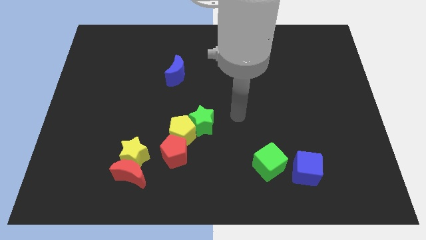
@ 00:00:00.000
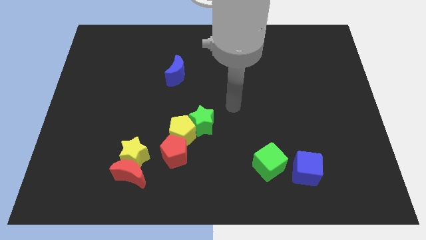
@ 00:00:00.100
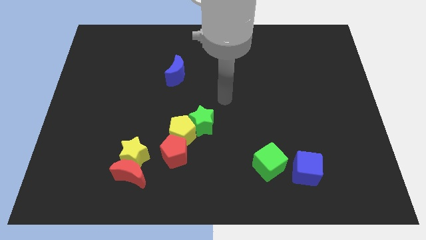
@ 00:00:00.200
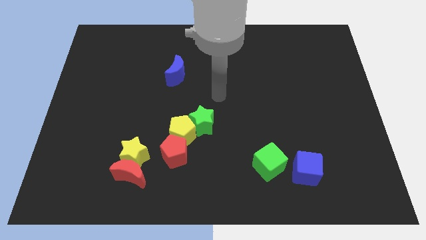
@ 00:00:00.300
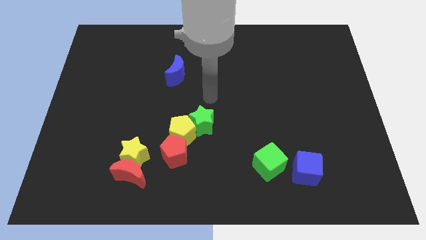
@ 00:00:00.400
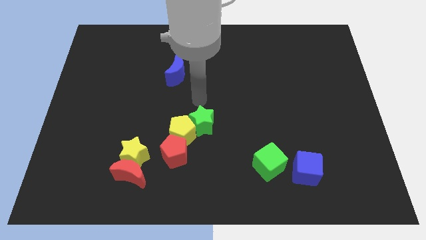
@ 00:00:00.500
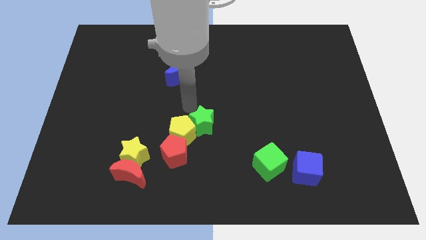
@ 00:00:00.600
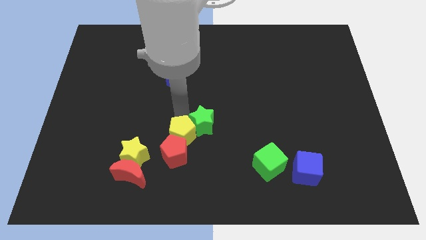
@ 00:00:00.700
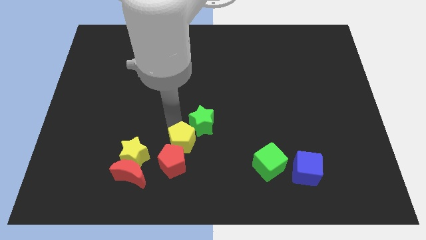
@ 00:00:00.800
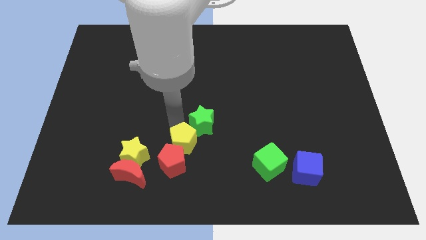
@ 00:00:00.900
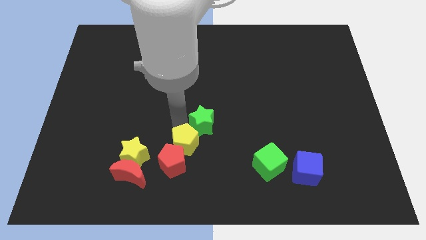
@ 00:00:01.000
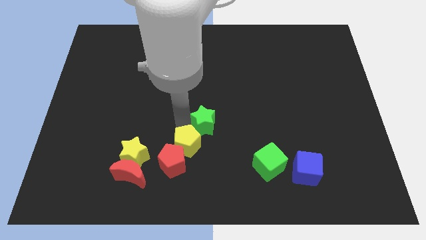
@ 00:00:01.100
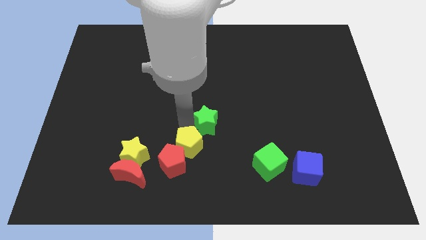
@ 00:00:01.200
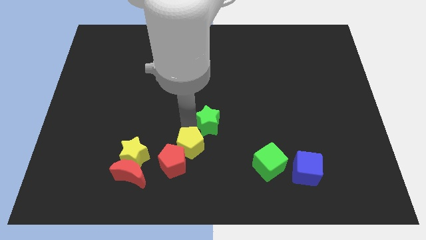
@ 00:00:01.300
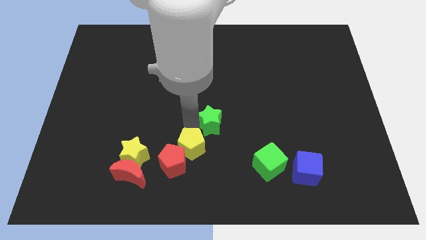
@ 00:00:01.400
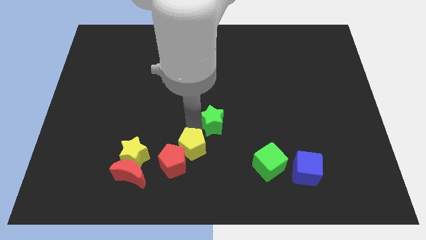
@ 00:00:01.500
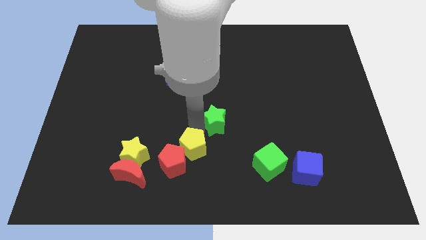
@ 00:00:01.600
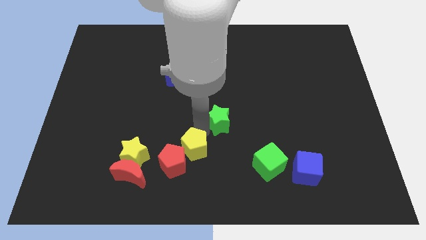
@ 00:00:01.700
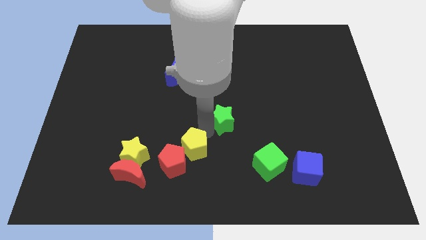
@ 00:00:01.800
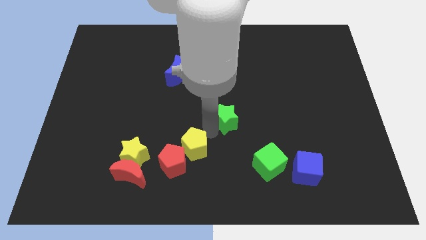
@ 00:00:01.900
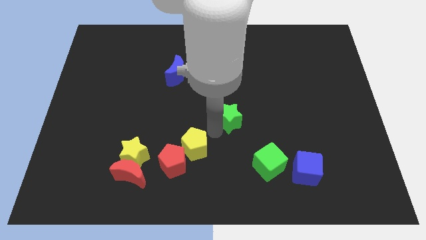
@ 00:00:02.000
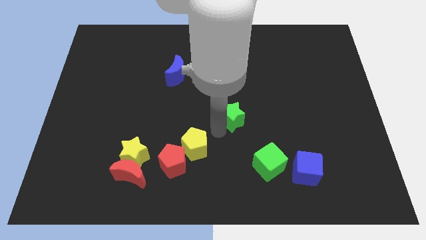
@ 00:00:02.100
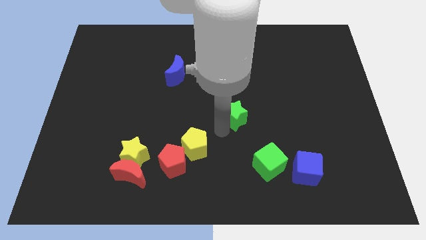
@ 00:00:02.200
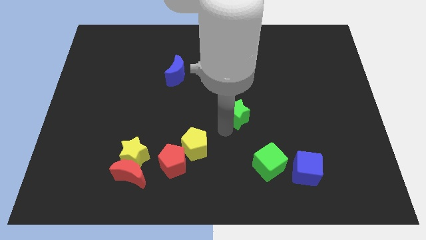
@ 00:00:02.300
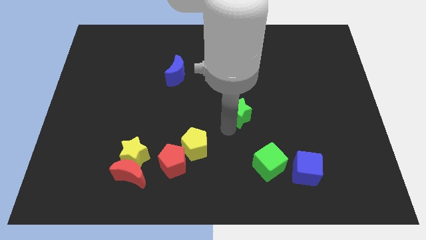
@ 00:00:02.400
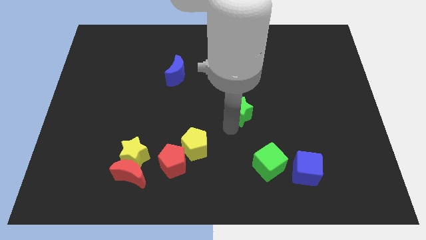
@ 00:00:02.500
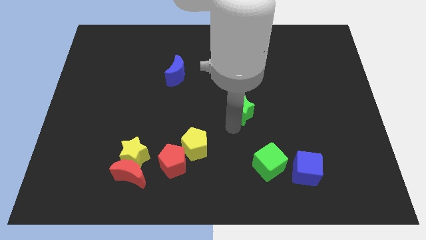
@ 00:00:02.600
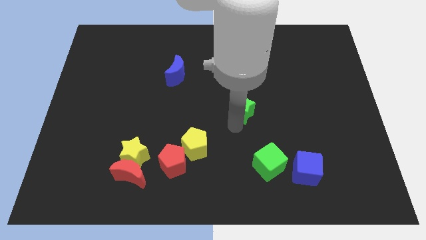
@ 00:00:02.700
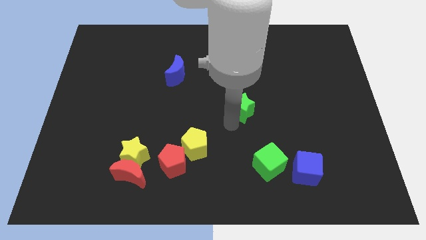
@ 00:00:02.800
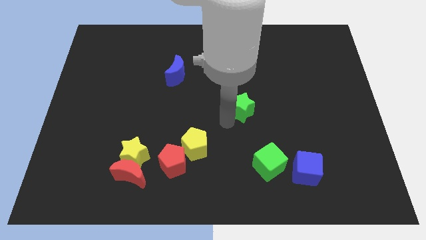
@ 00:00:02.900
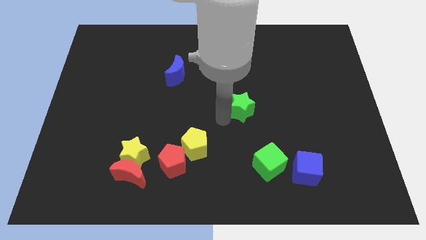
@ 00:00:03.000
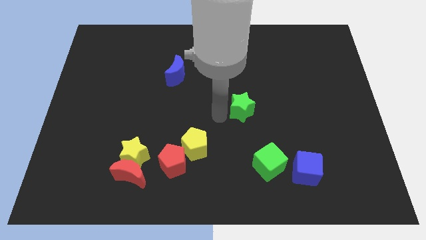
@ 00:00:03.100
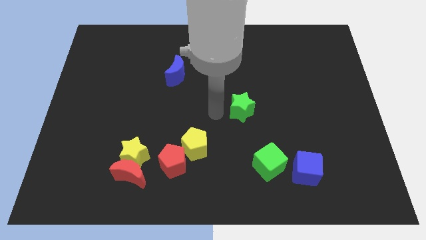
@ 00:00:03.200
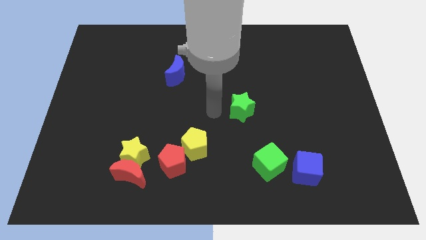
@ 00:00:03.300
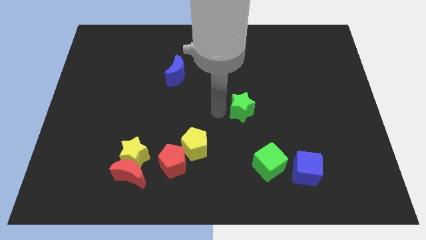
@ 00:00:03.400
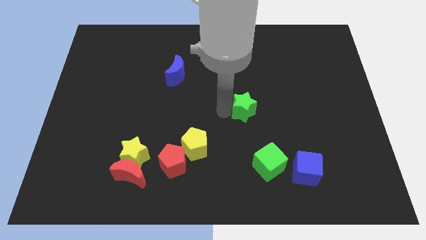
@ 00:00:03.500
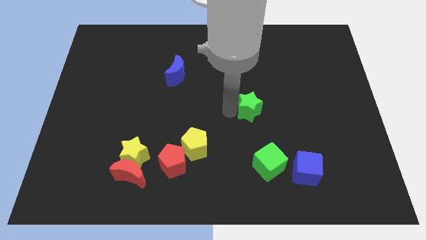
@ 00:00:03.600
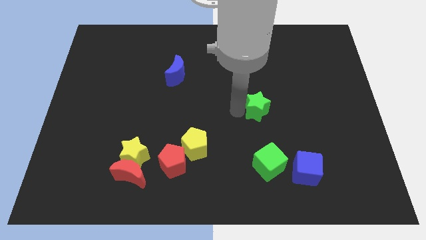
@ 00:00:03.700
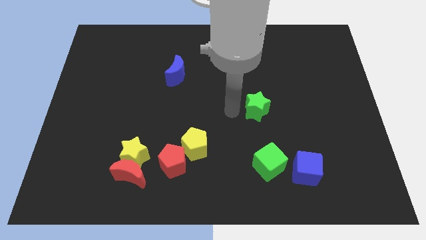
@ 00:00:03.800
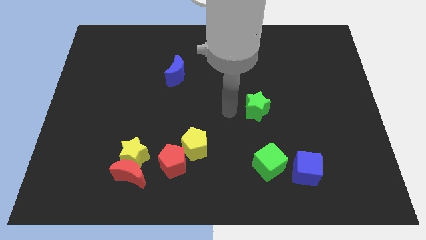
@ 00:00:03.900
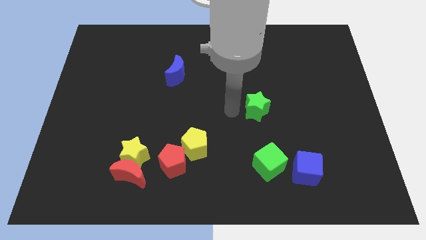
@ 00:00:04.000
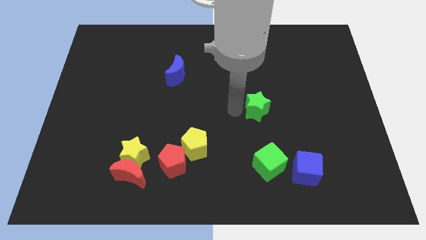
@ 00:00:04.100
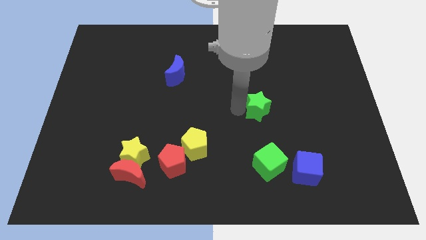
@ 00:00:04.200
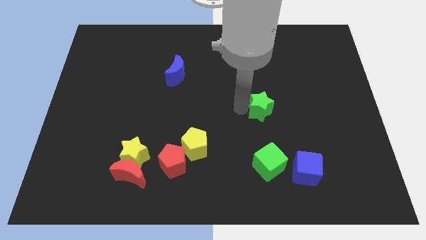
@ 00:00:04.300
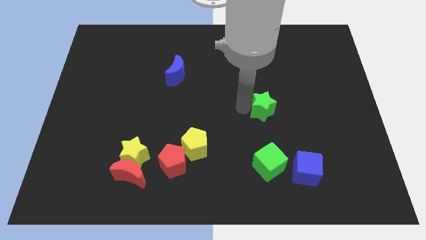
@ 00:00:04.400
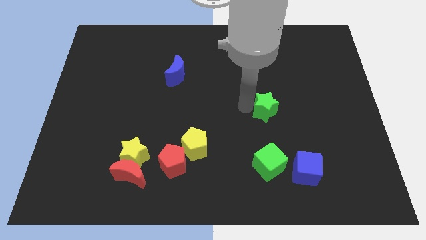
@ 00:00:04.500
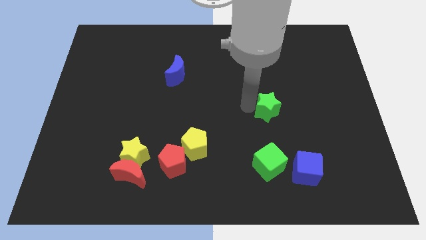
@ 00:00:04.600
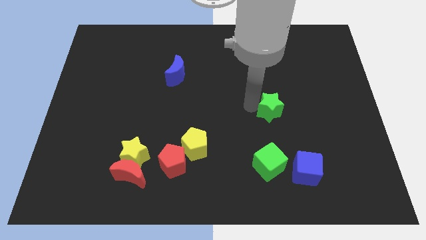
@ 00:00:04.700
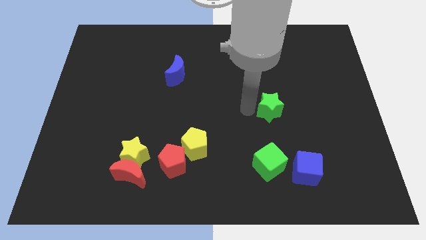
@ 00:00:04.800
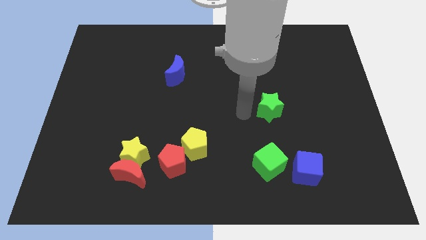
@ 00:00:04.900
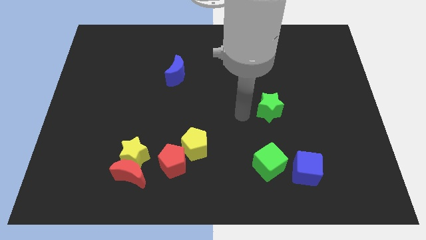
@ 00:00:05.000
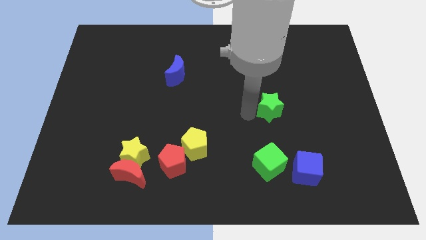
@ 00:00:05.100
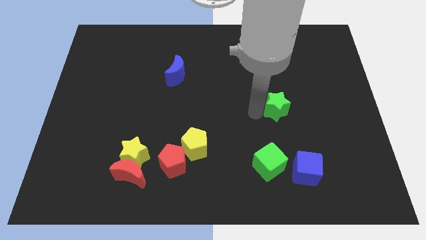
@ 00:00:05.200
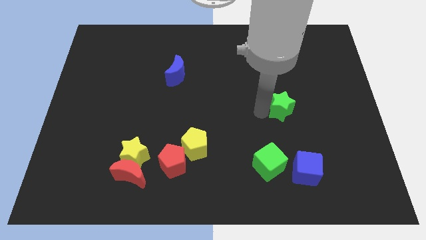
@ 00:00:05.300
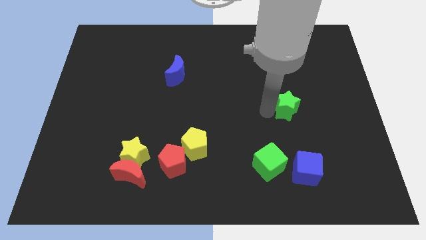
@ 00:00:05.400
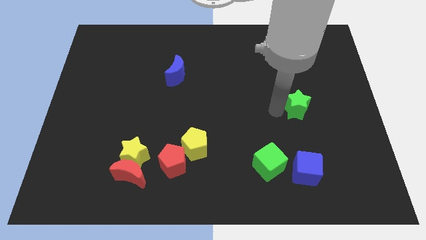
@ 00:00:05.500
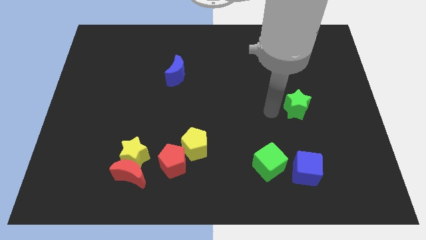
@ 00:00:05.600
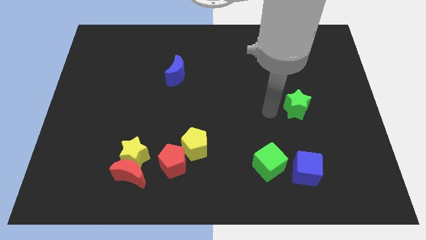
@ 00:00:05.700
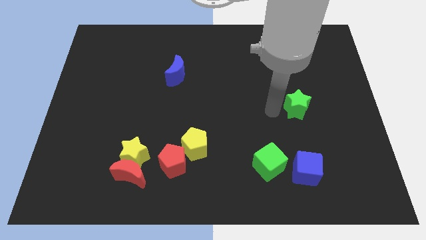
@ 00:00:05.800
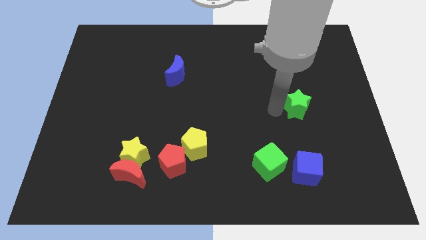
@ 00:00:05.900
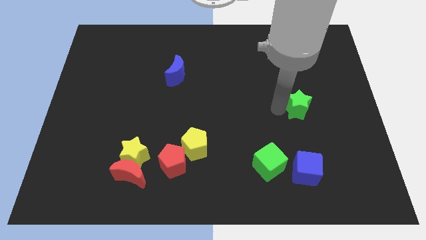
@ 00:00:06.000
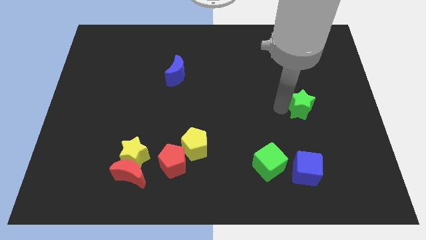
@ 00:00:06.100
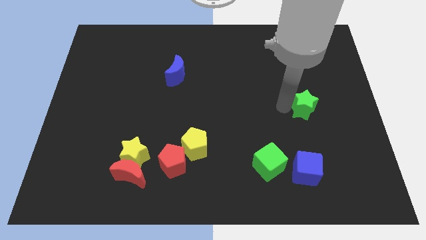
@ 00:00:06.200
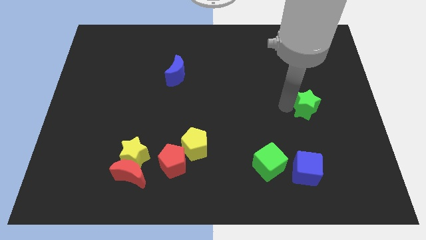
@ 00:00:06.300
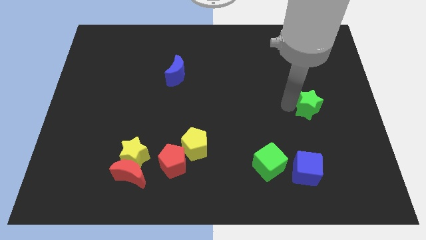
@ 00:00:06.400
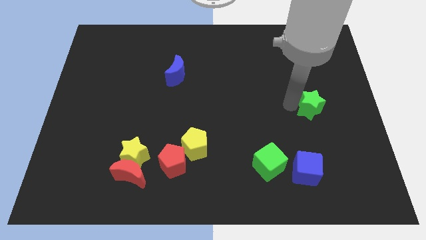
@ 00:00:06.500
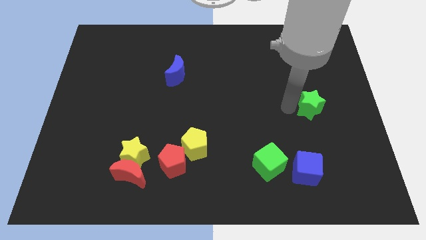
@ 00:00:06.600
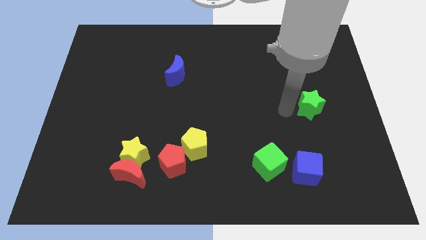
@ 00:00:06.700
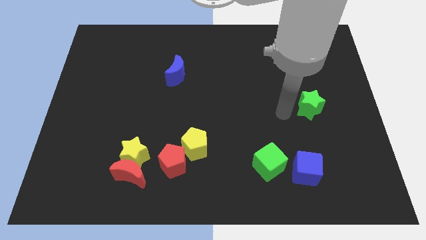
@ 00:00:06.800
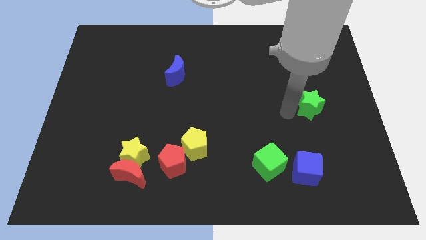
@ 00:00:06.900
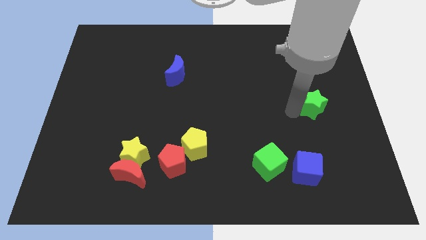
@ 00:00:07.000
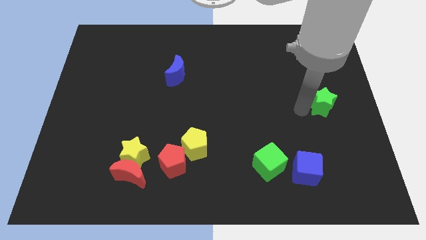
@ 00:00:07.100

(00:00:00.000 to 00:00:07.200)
push the green star to the right side
